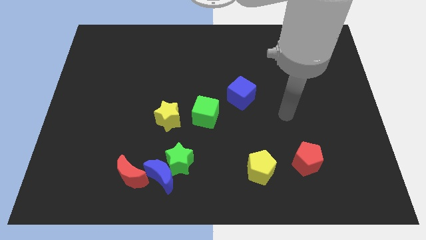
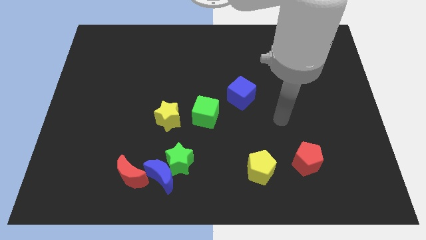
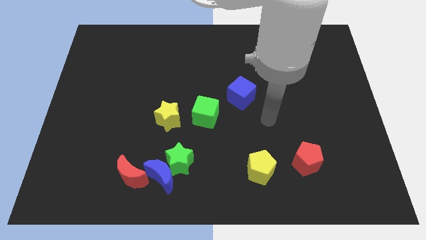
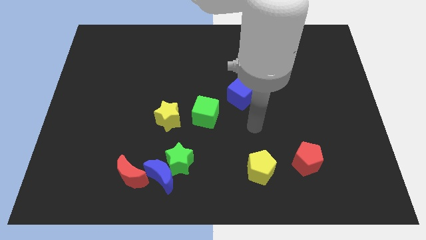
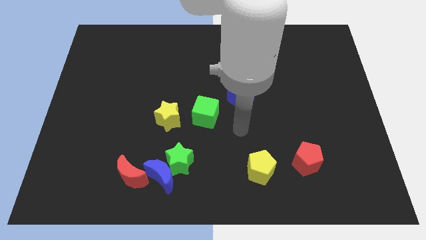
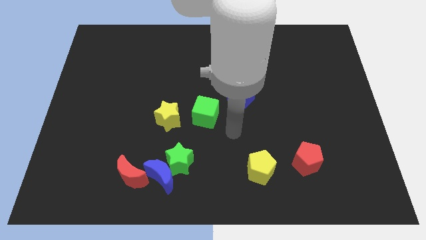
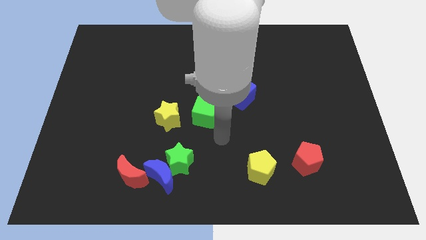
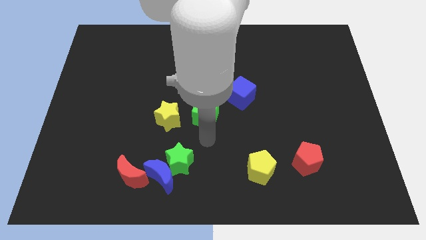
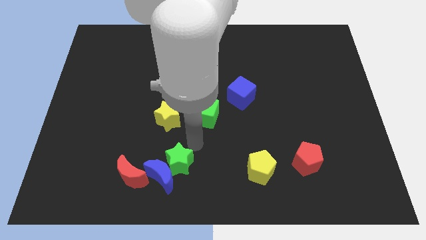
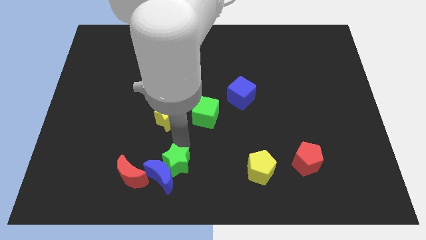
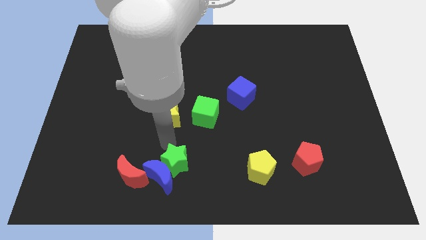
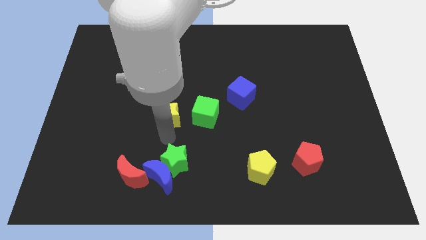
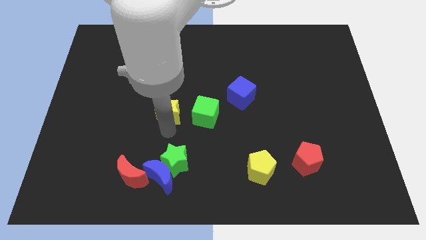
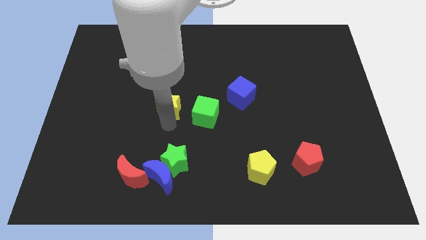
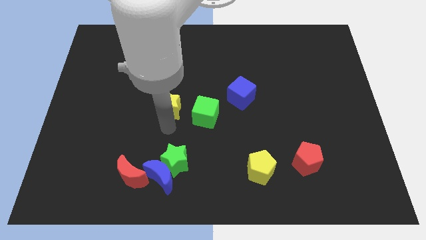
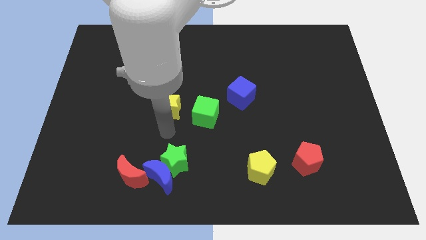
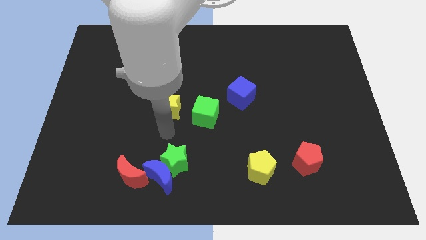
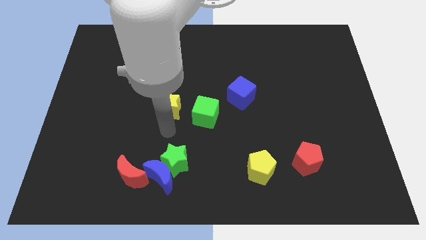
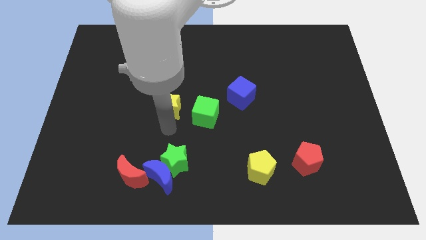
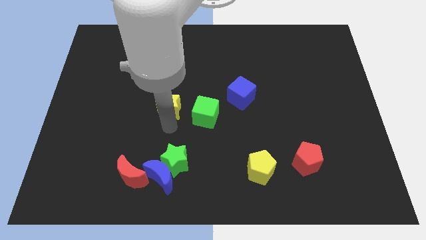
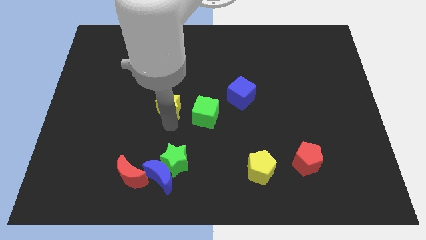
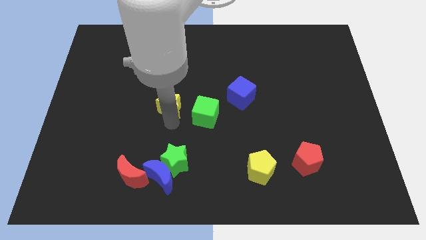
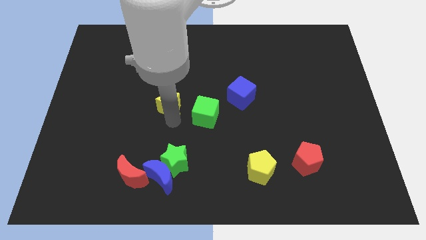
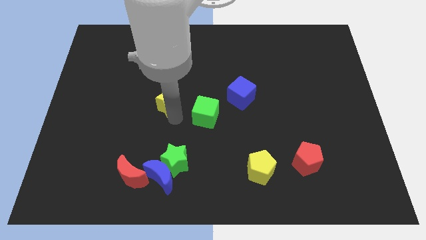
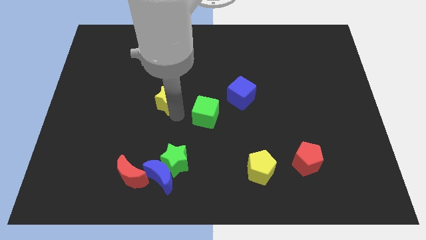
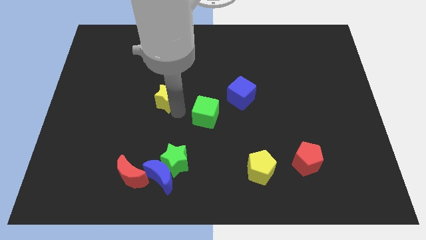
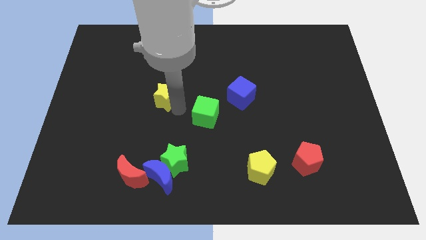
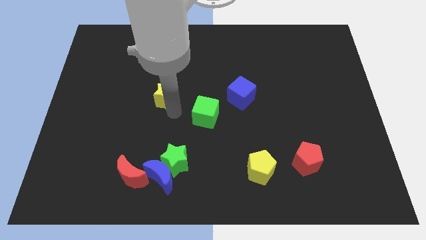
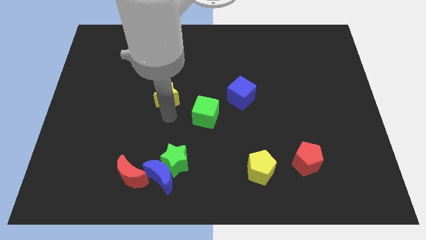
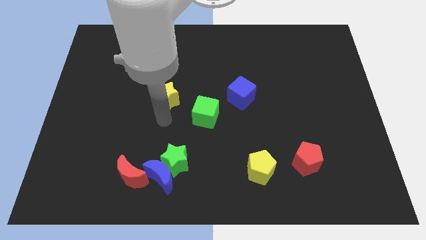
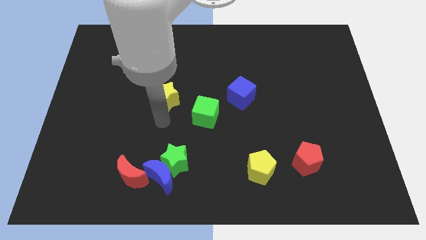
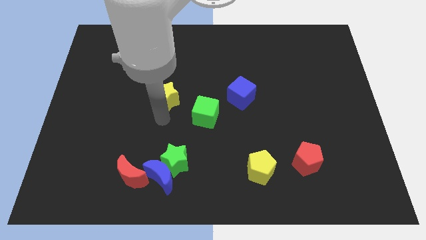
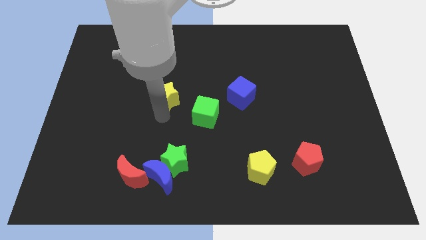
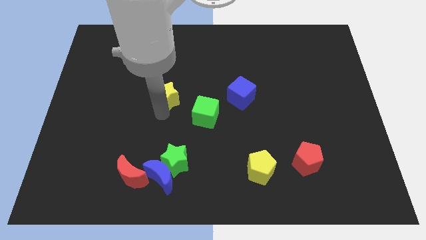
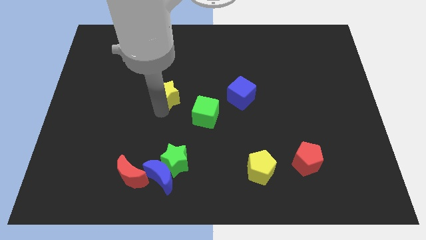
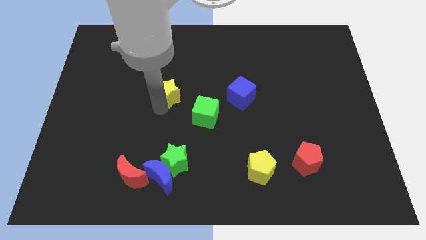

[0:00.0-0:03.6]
move the yellow star a bit up

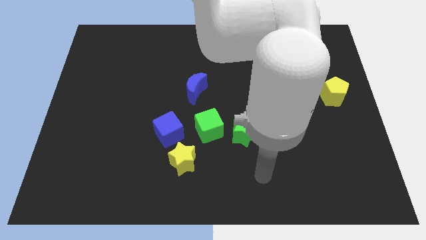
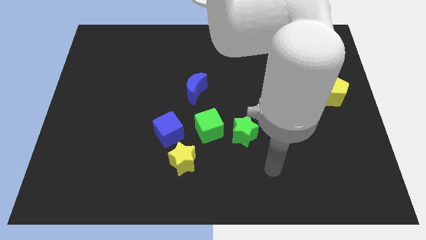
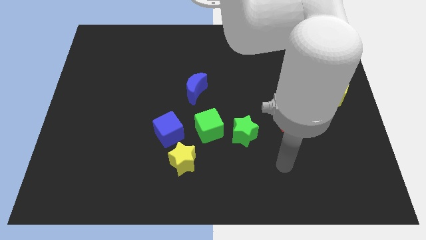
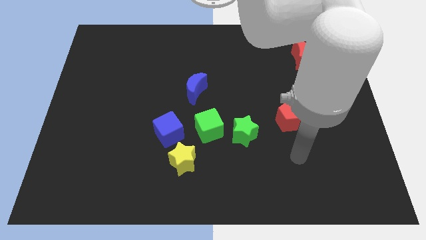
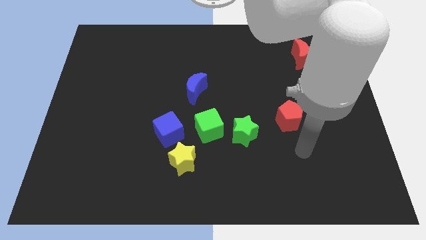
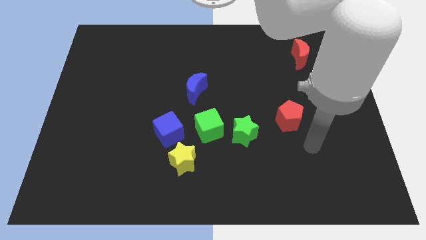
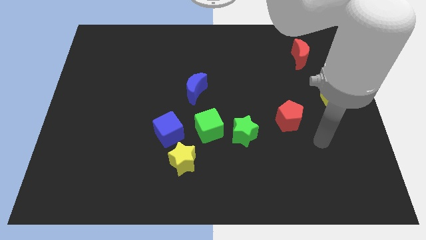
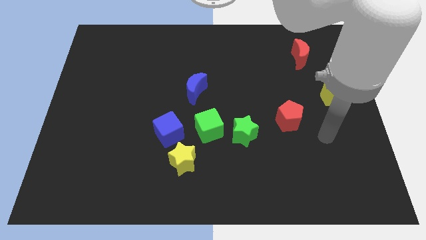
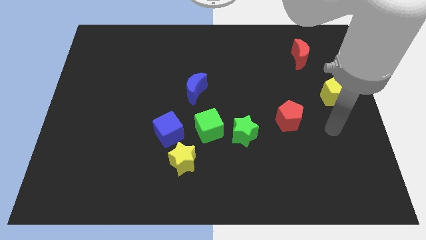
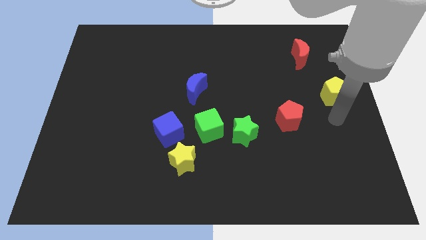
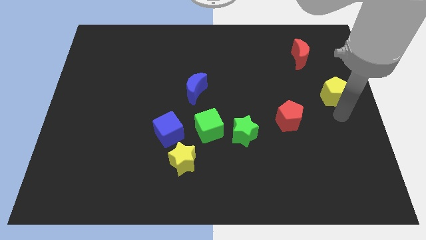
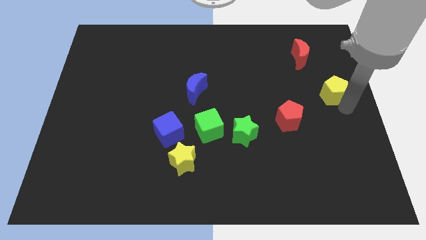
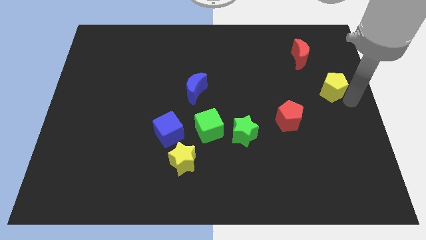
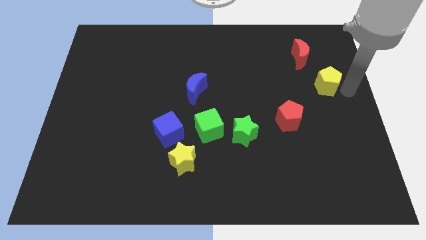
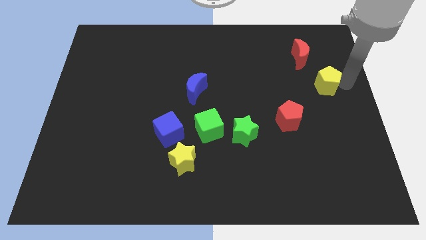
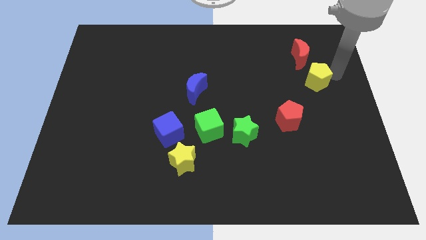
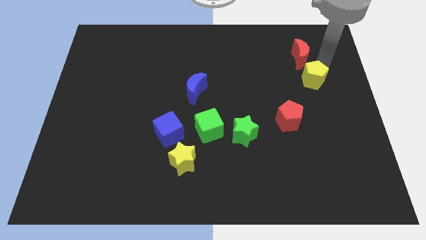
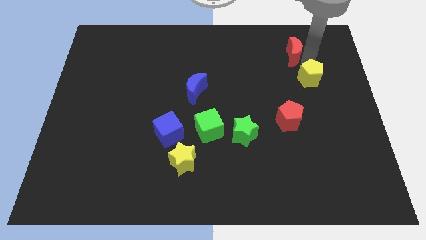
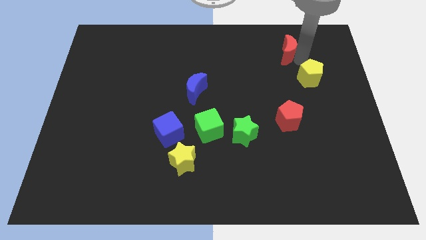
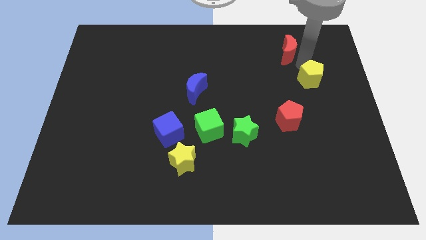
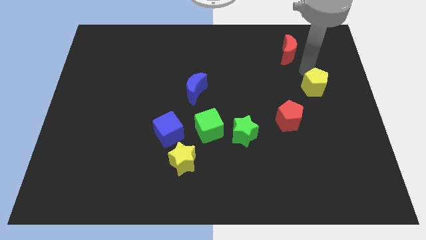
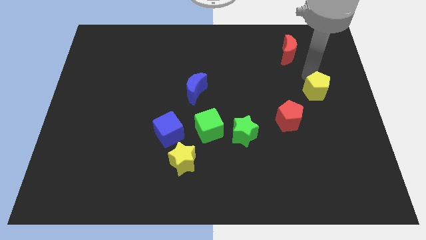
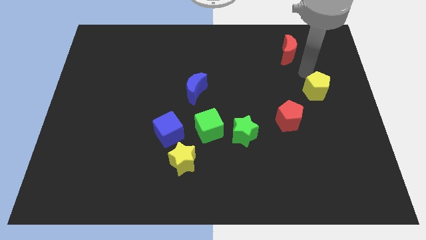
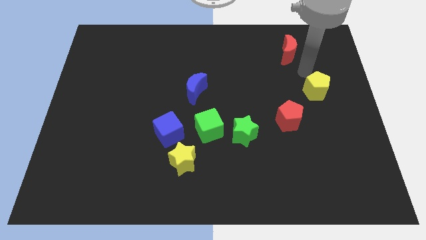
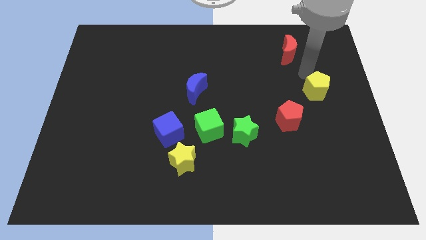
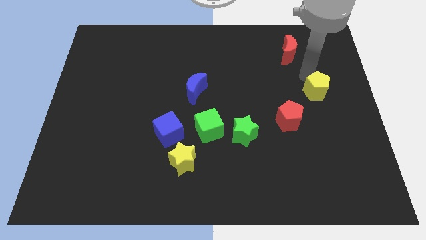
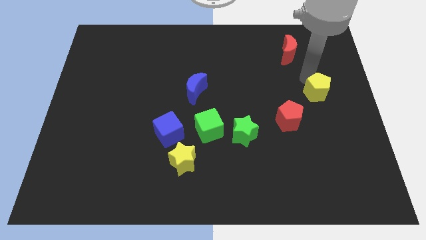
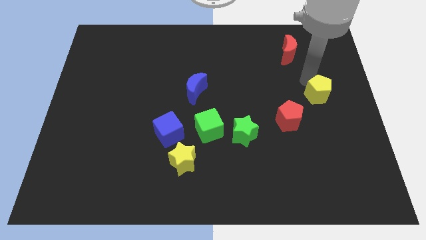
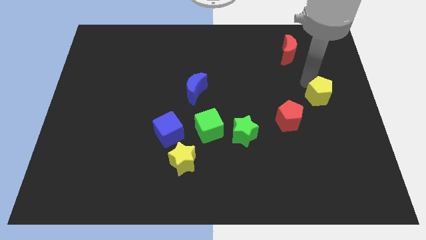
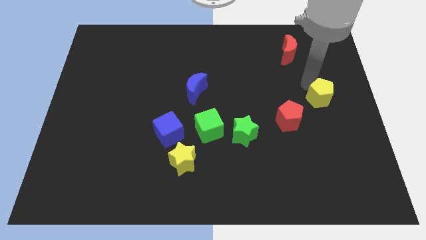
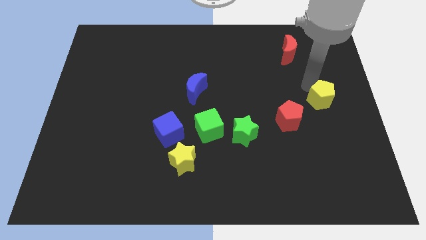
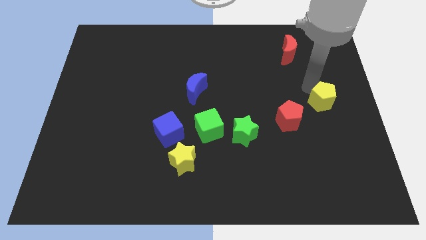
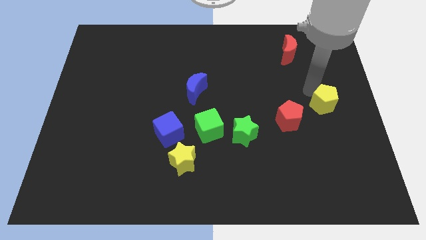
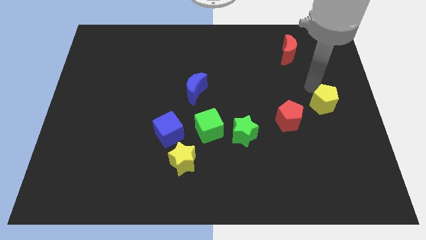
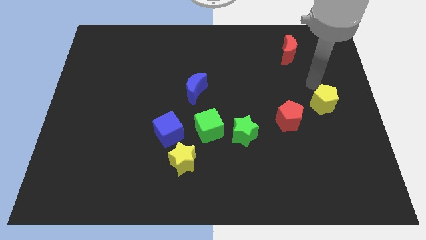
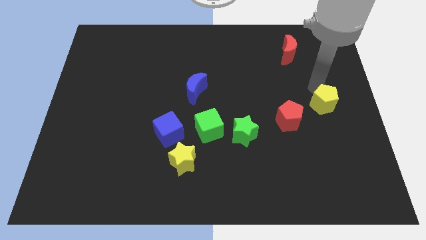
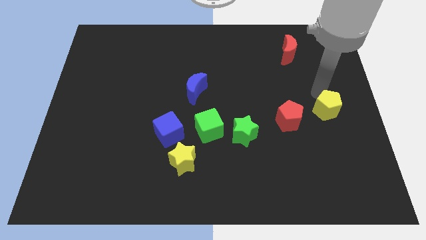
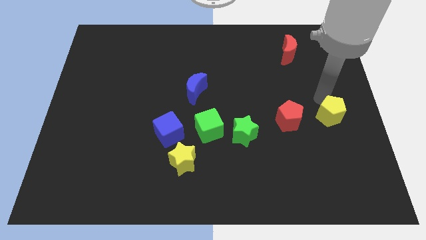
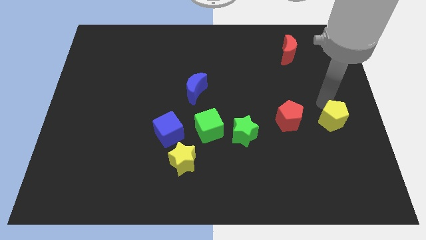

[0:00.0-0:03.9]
move the yellow pentagon slightly downwards

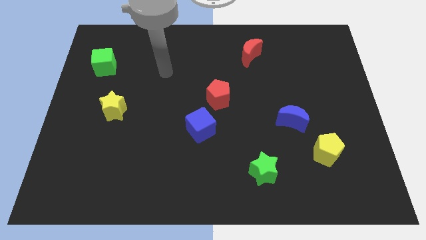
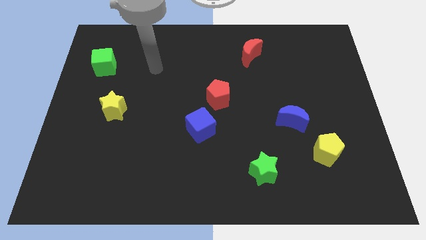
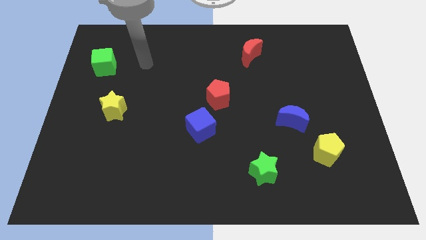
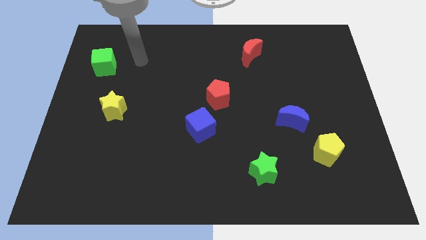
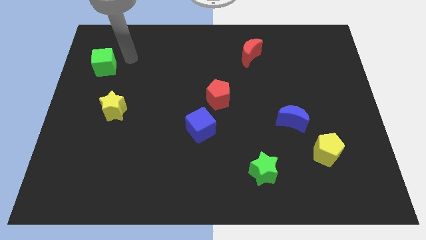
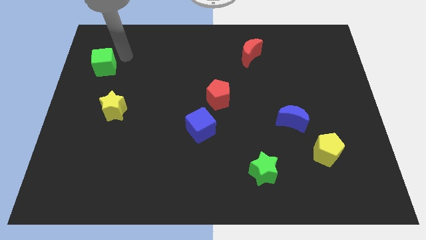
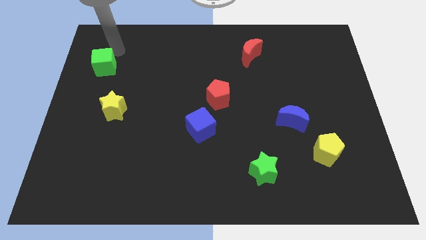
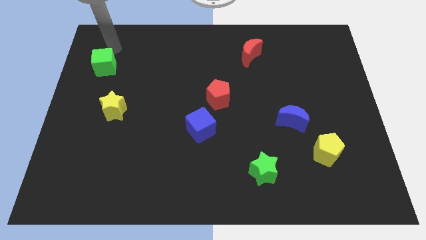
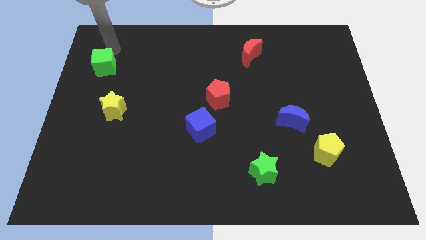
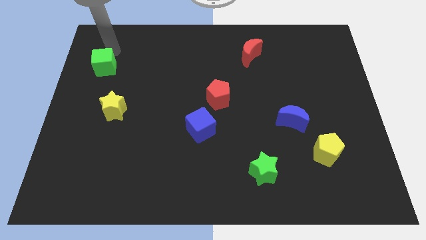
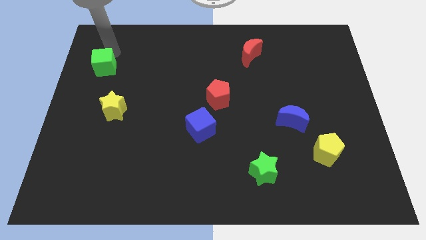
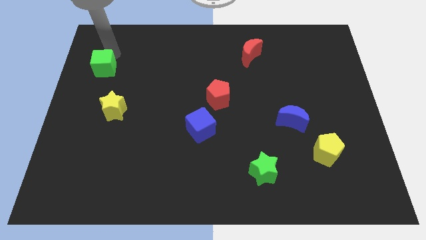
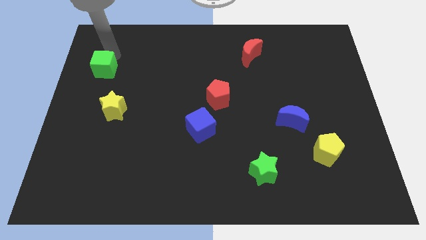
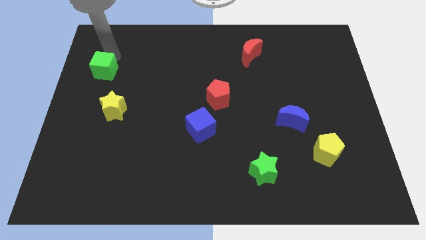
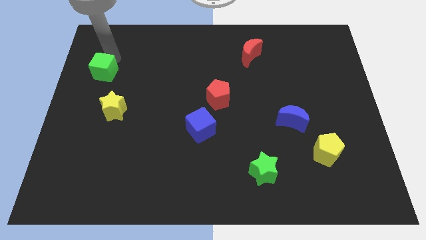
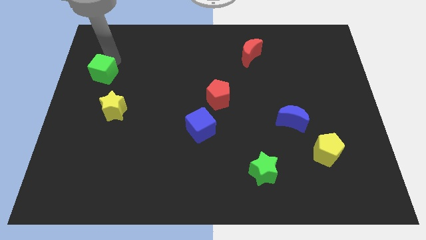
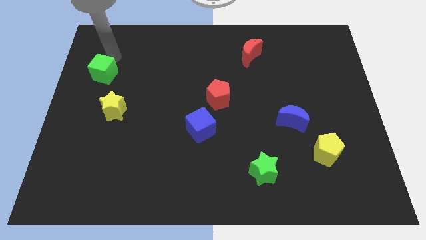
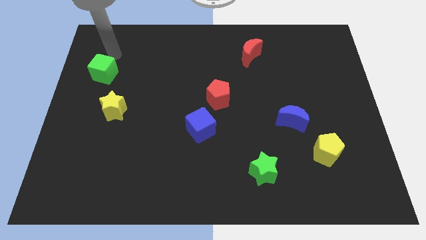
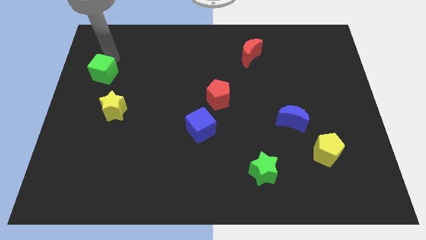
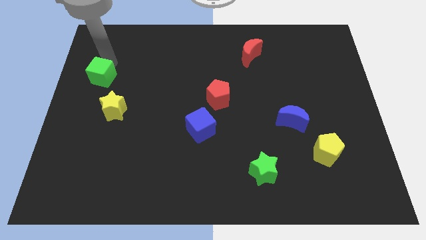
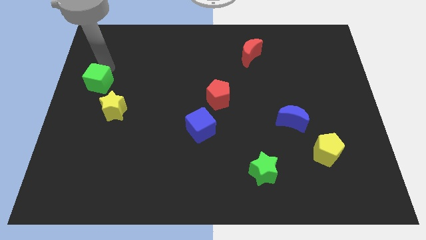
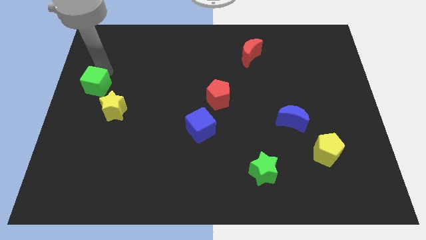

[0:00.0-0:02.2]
push the green cube somewhat down
